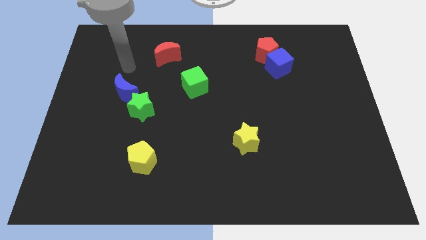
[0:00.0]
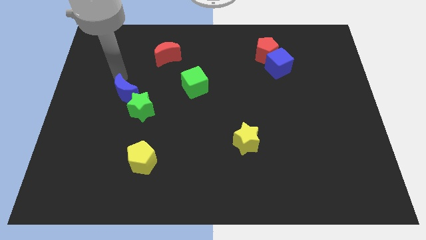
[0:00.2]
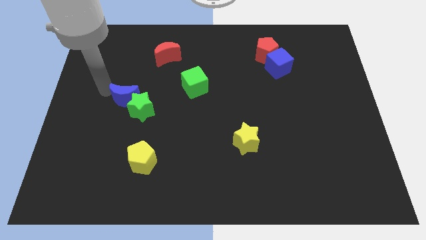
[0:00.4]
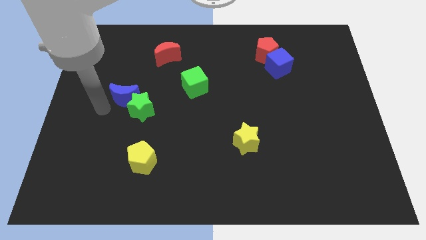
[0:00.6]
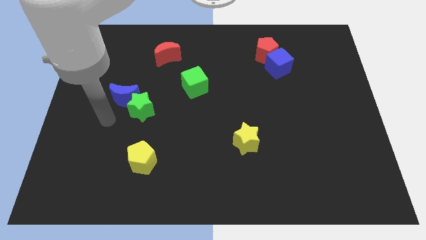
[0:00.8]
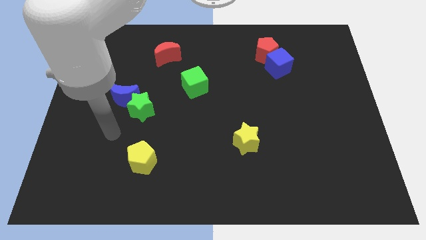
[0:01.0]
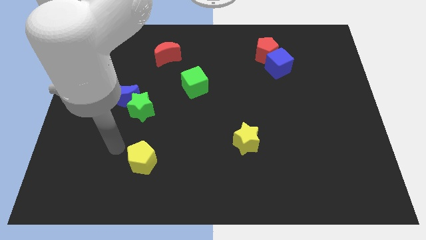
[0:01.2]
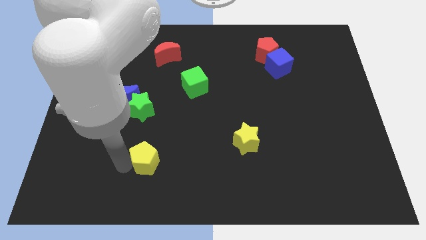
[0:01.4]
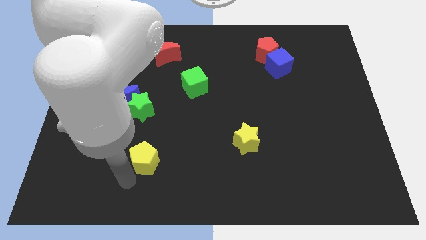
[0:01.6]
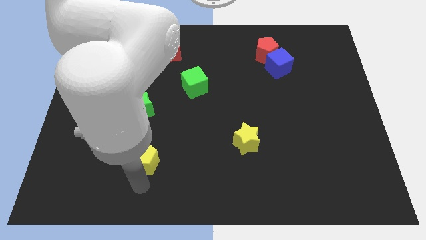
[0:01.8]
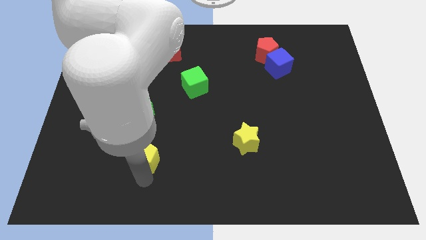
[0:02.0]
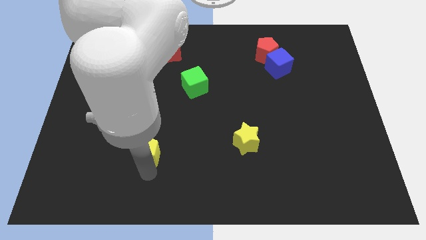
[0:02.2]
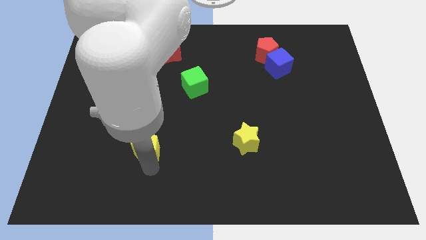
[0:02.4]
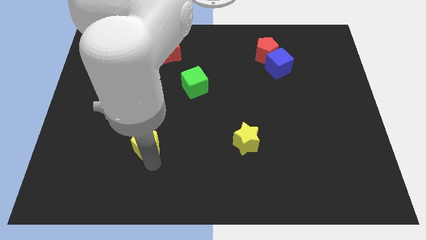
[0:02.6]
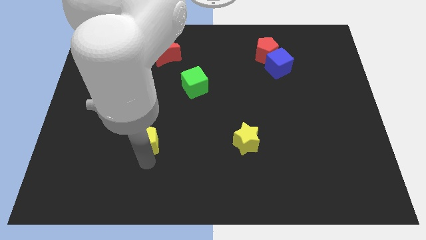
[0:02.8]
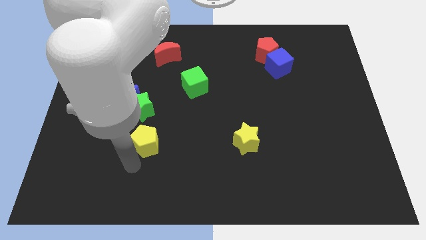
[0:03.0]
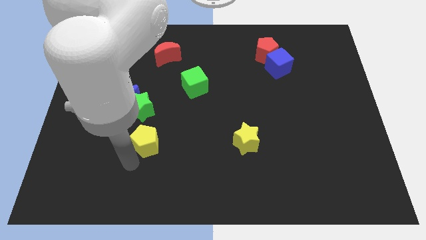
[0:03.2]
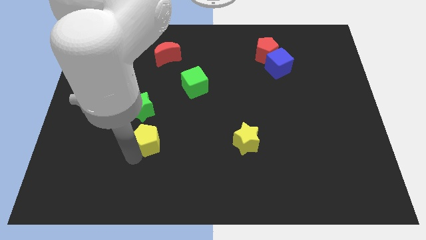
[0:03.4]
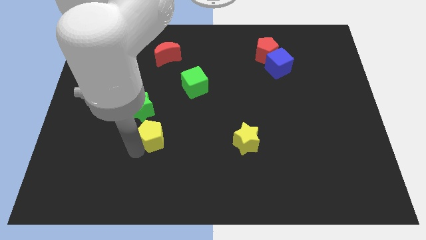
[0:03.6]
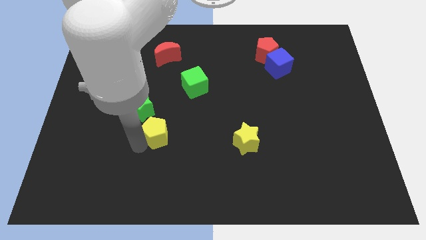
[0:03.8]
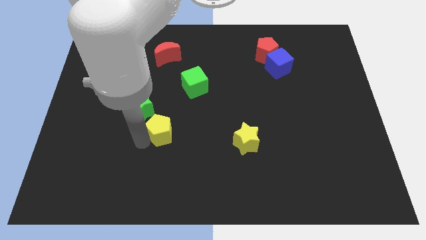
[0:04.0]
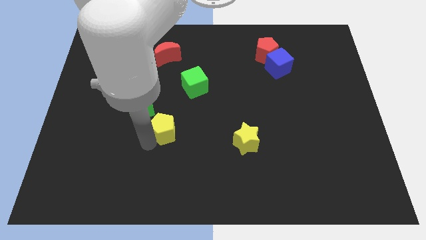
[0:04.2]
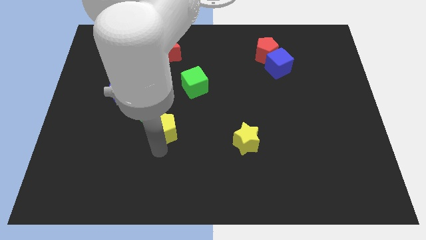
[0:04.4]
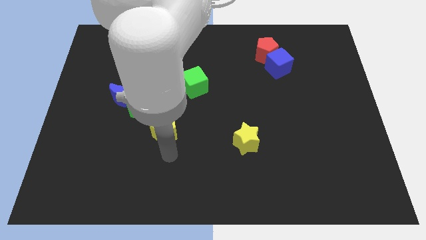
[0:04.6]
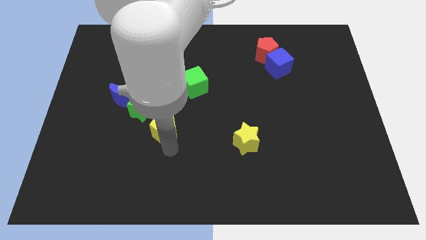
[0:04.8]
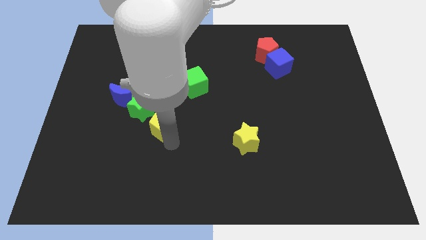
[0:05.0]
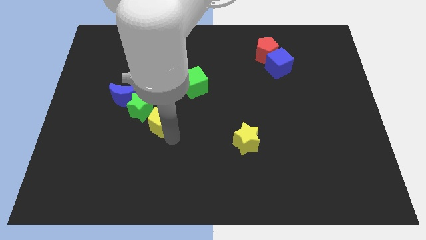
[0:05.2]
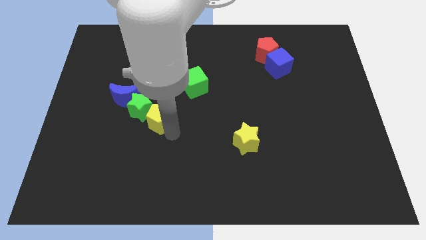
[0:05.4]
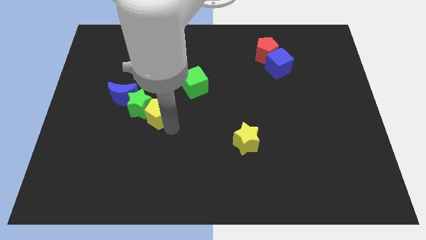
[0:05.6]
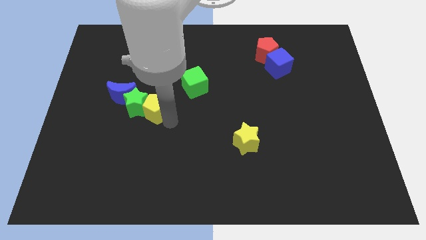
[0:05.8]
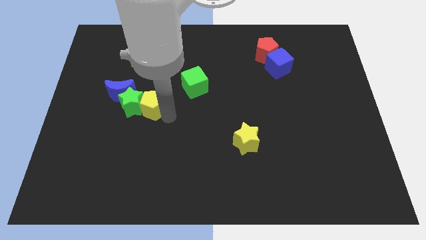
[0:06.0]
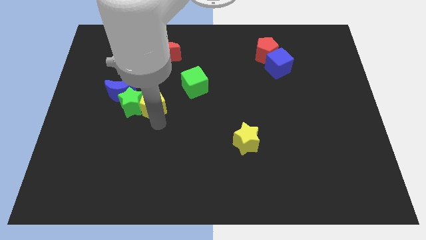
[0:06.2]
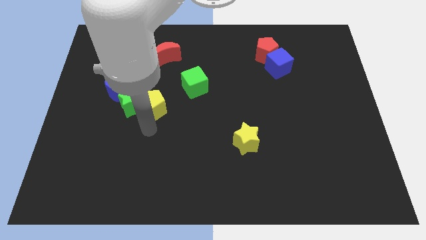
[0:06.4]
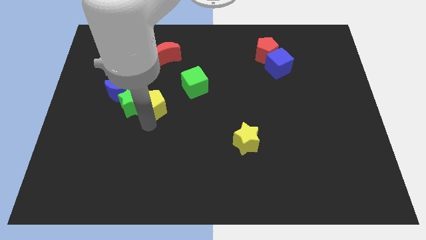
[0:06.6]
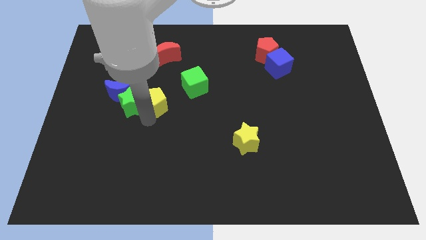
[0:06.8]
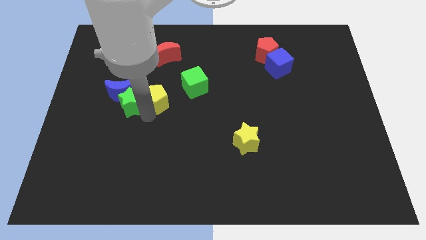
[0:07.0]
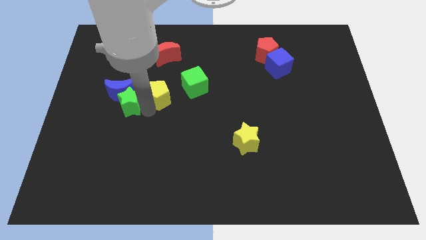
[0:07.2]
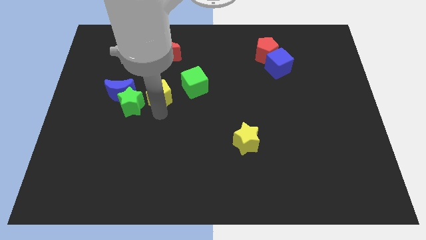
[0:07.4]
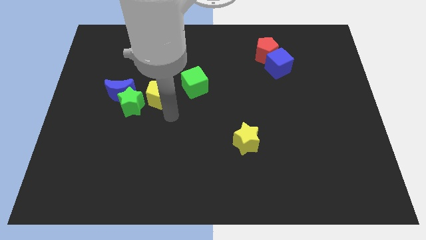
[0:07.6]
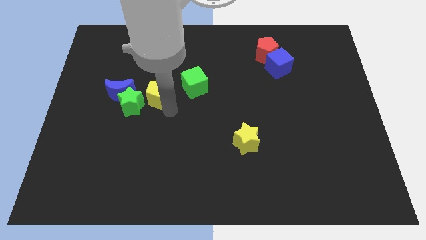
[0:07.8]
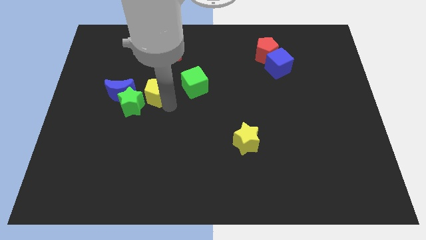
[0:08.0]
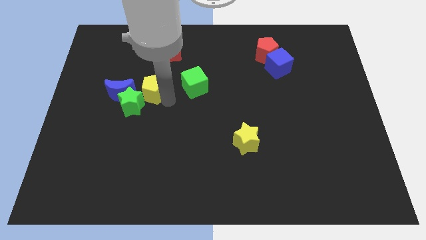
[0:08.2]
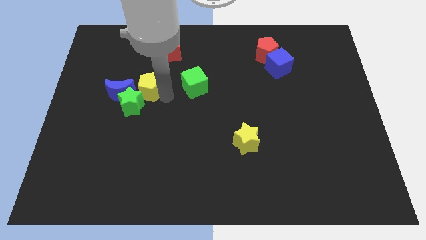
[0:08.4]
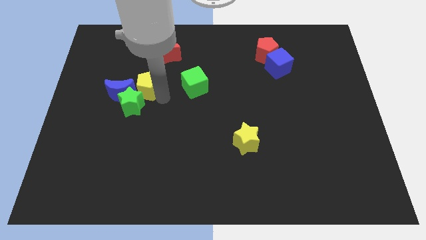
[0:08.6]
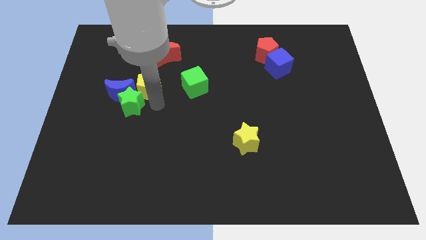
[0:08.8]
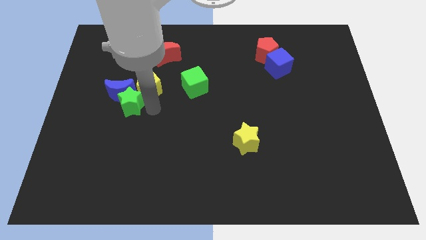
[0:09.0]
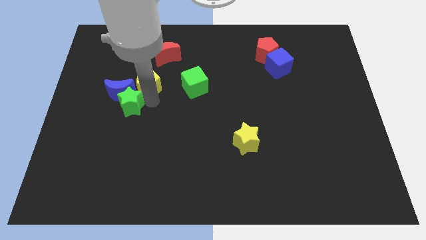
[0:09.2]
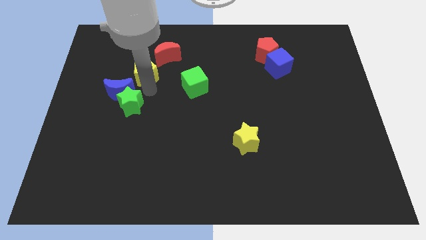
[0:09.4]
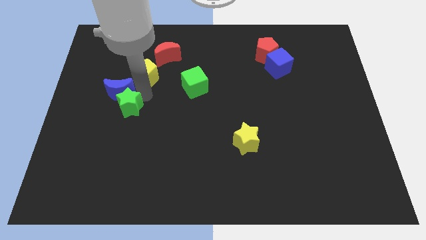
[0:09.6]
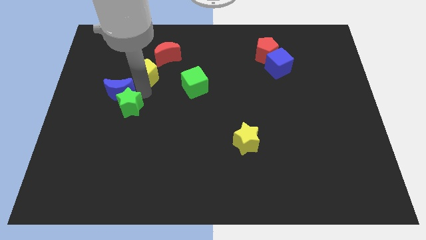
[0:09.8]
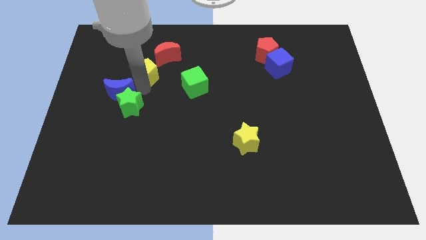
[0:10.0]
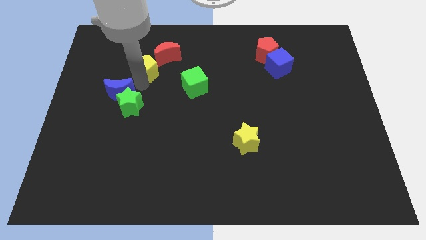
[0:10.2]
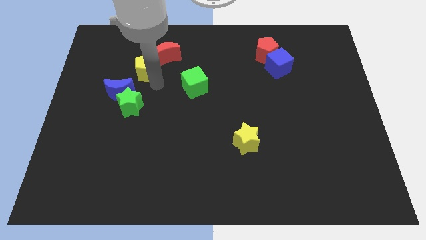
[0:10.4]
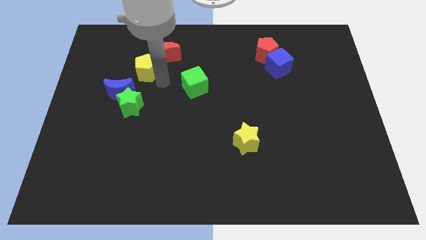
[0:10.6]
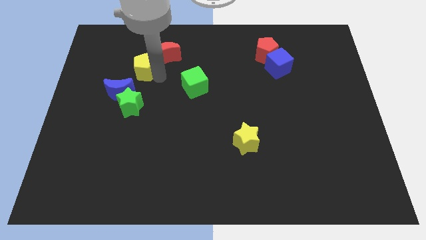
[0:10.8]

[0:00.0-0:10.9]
put the yellow pentagon to the left of the red moon
